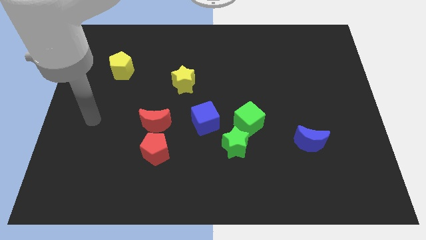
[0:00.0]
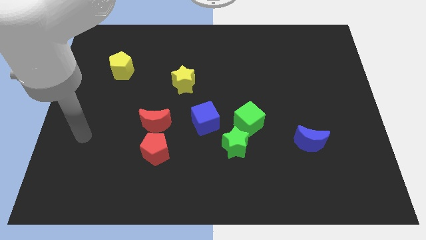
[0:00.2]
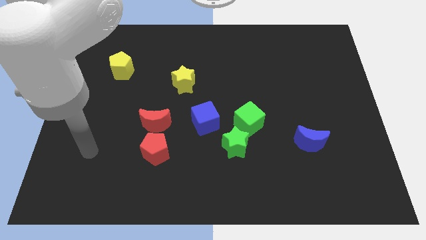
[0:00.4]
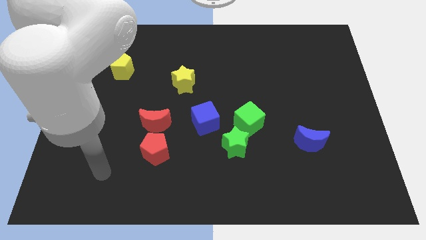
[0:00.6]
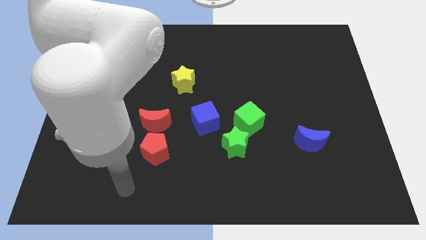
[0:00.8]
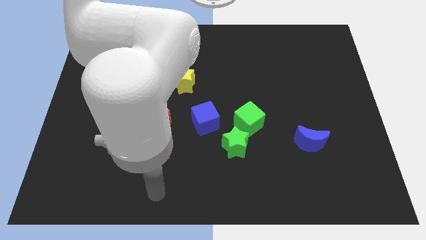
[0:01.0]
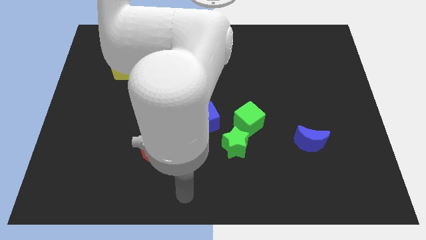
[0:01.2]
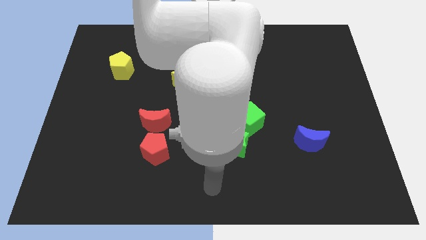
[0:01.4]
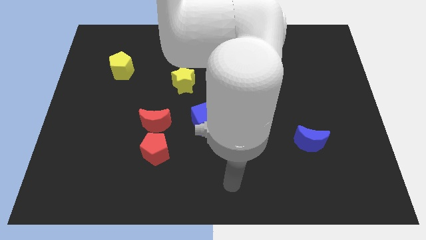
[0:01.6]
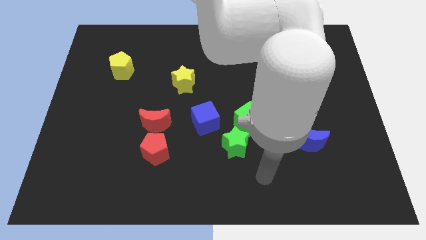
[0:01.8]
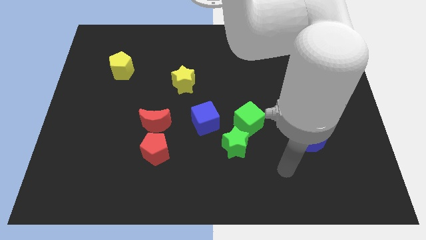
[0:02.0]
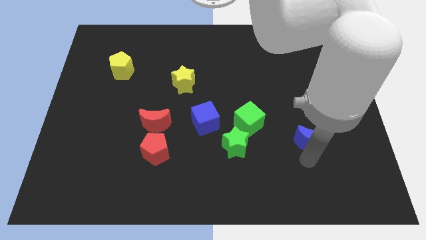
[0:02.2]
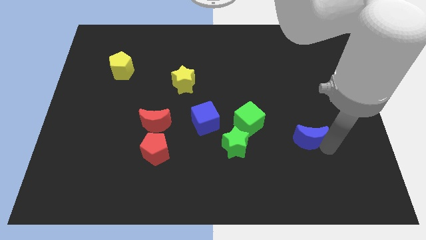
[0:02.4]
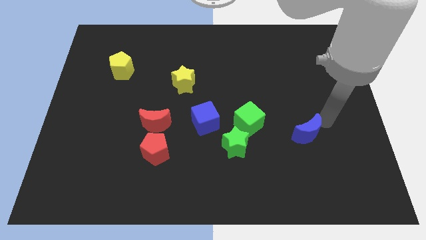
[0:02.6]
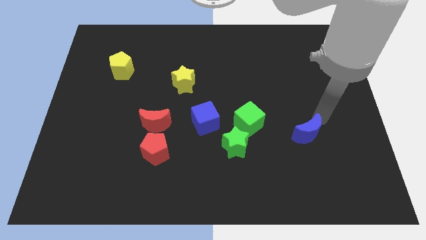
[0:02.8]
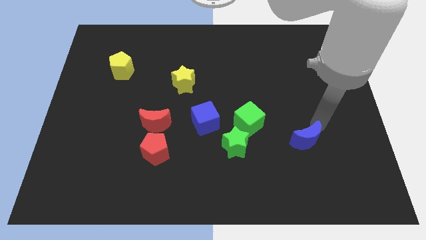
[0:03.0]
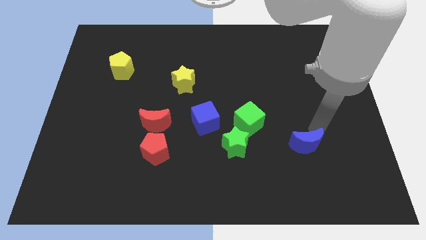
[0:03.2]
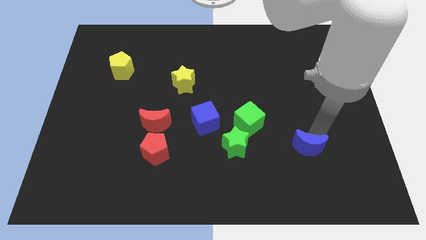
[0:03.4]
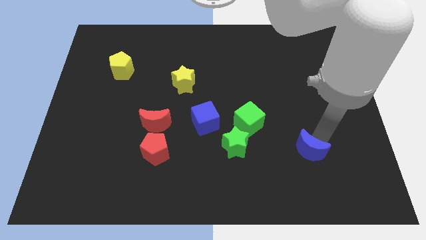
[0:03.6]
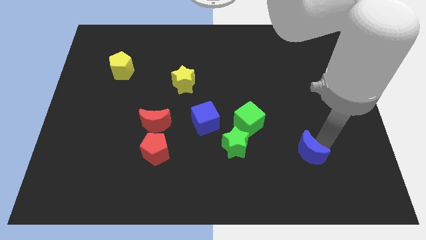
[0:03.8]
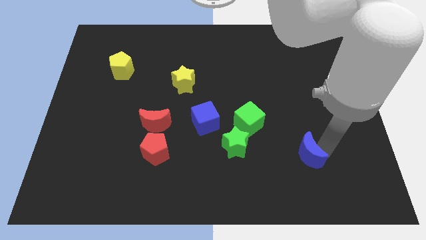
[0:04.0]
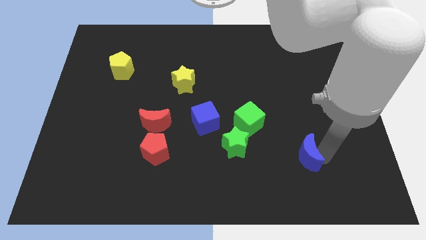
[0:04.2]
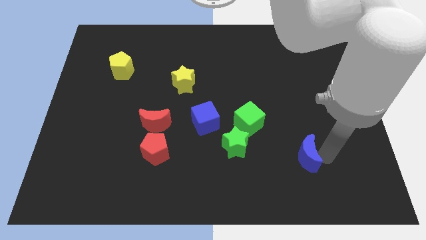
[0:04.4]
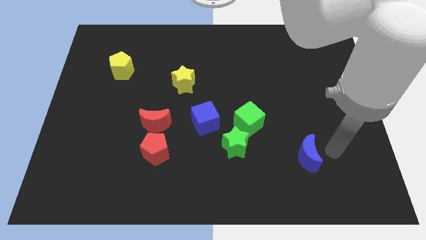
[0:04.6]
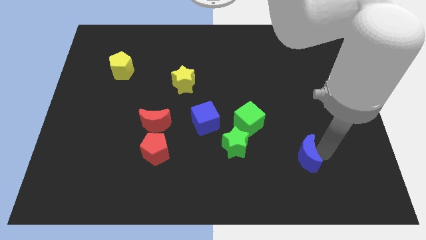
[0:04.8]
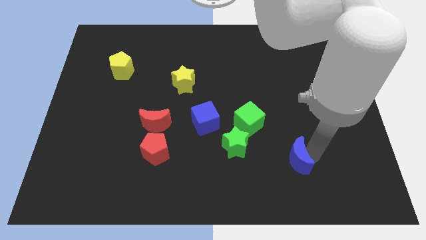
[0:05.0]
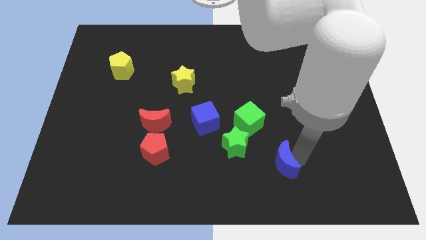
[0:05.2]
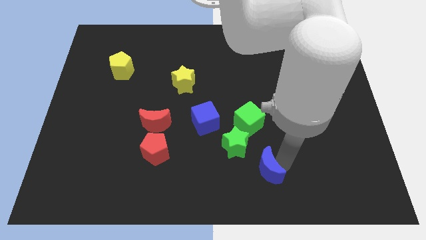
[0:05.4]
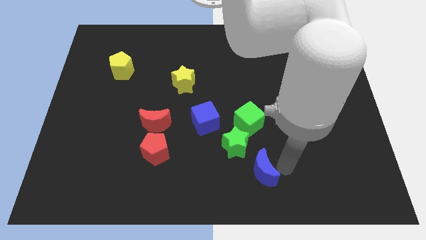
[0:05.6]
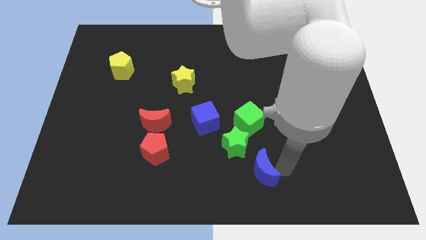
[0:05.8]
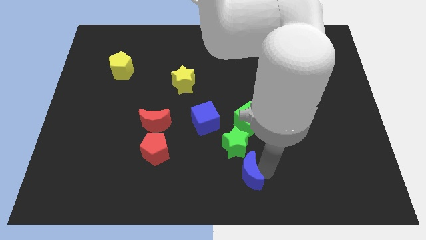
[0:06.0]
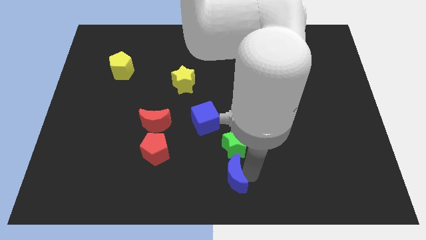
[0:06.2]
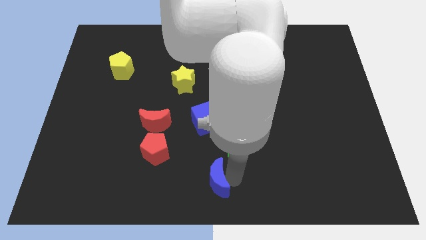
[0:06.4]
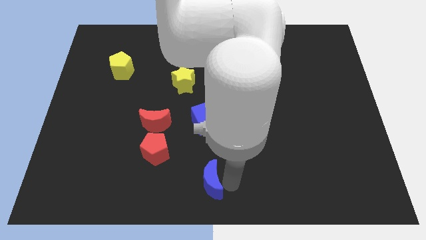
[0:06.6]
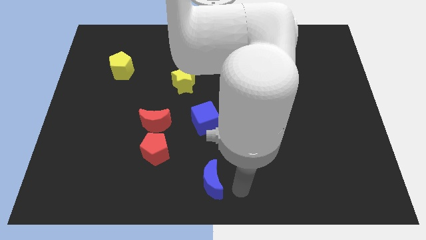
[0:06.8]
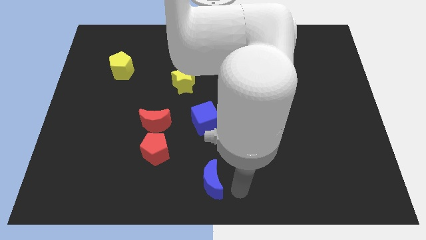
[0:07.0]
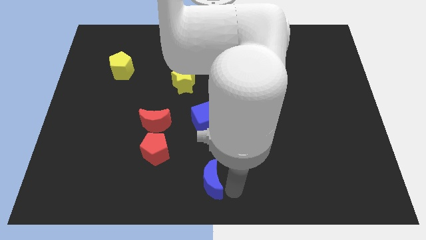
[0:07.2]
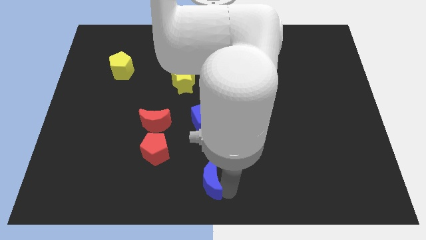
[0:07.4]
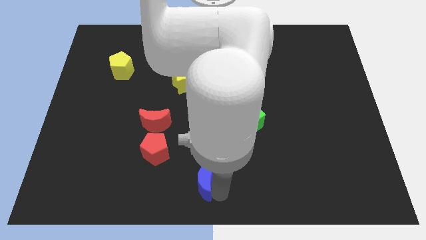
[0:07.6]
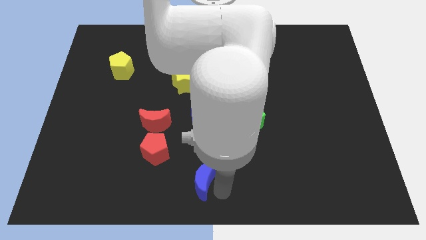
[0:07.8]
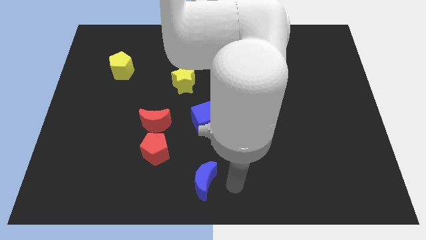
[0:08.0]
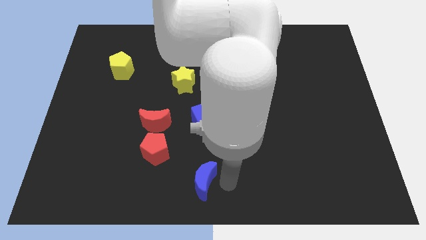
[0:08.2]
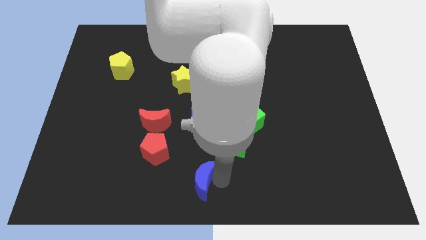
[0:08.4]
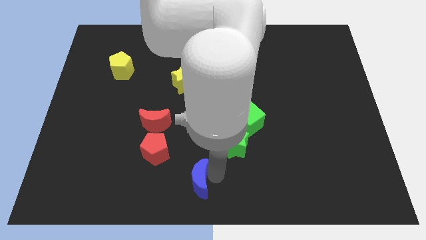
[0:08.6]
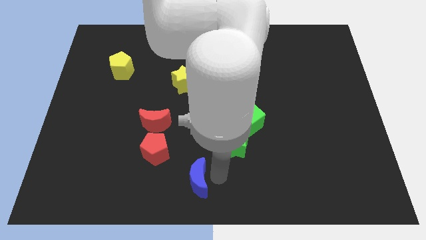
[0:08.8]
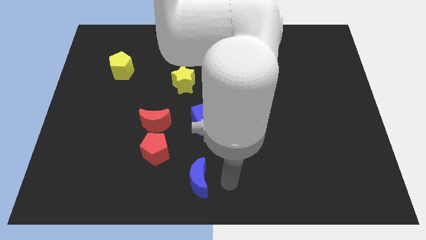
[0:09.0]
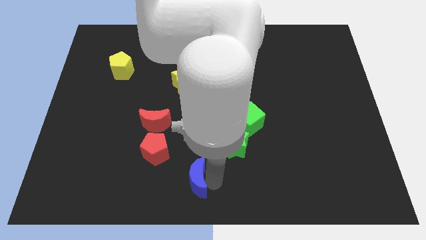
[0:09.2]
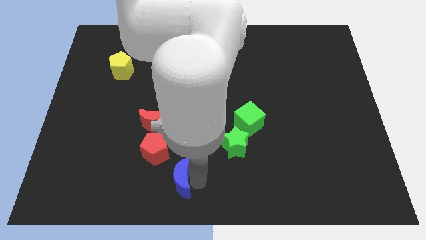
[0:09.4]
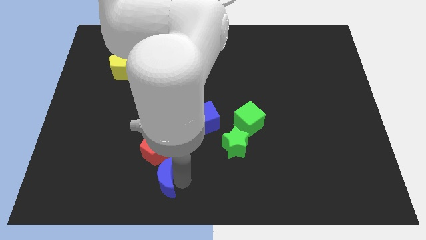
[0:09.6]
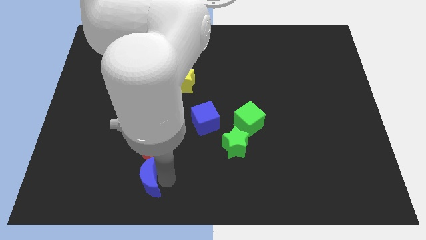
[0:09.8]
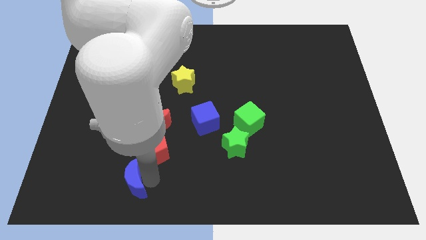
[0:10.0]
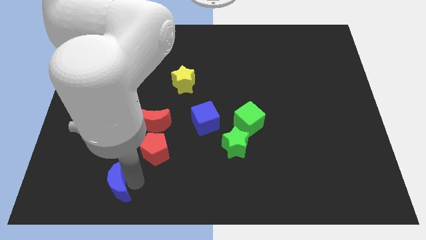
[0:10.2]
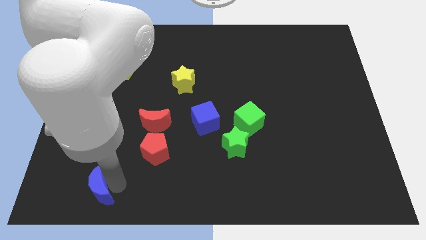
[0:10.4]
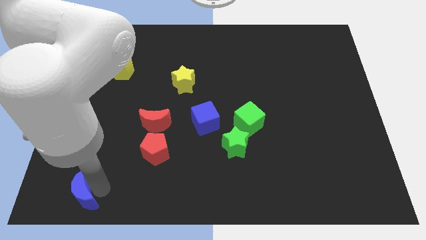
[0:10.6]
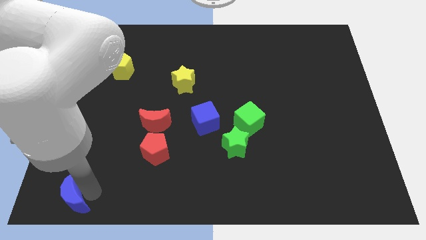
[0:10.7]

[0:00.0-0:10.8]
slide the blue moon to the bottom left of the board

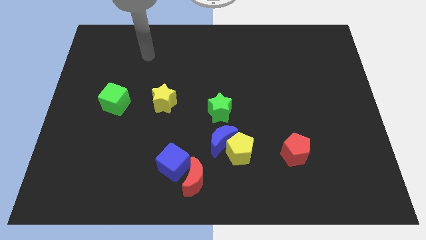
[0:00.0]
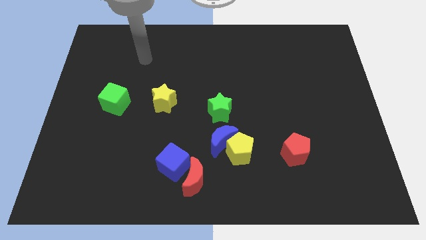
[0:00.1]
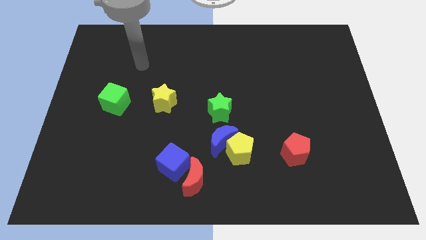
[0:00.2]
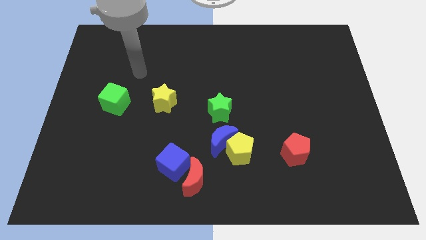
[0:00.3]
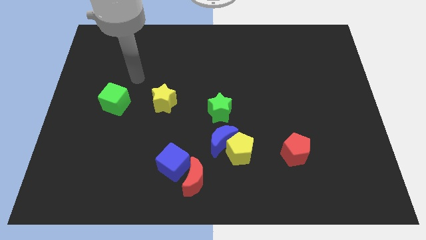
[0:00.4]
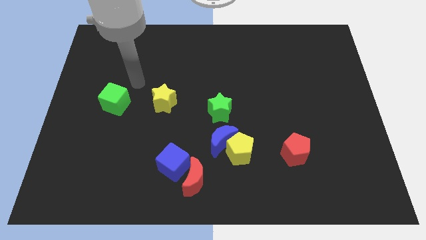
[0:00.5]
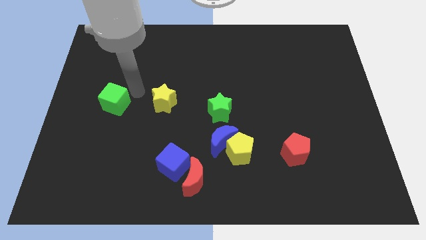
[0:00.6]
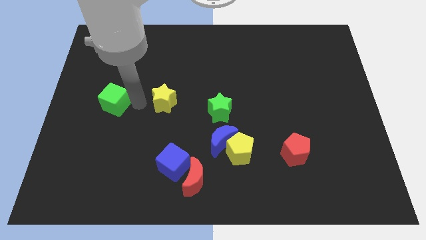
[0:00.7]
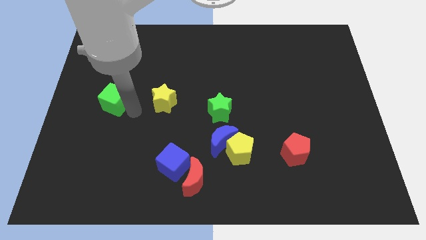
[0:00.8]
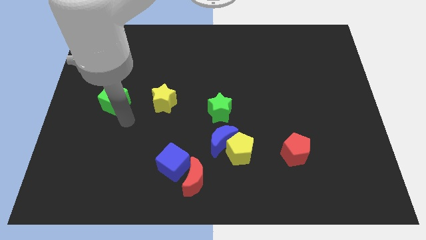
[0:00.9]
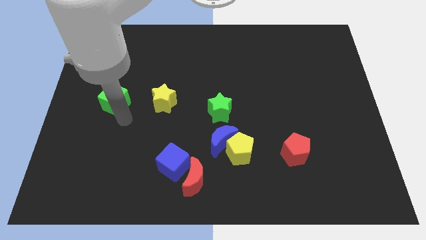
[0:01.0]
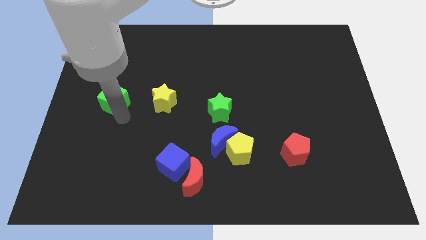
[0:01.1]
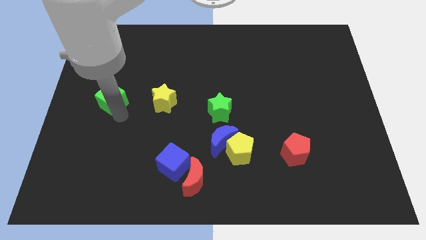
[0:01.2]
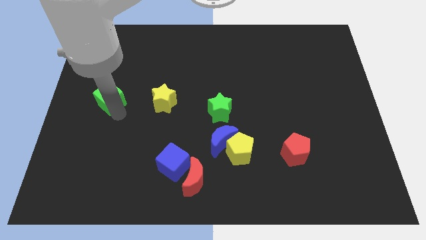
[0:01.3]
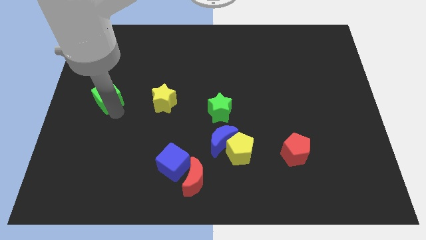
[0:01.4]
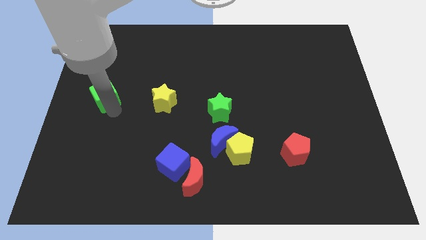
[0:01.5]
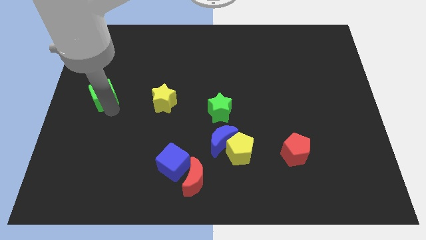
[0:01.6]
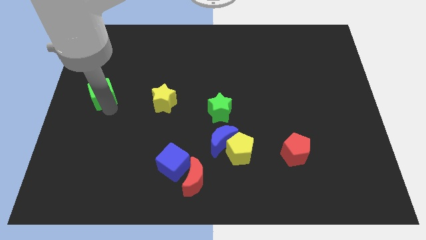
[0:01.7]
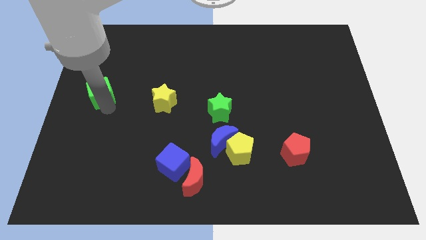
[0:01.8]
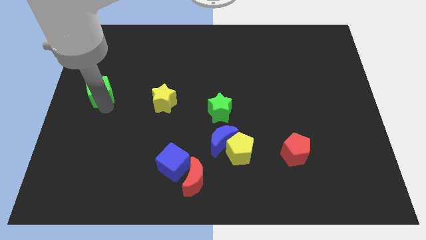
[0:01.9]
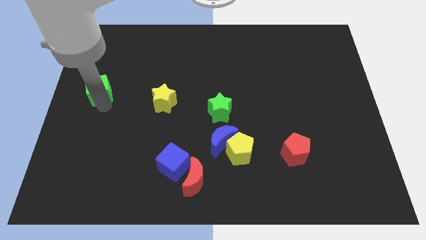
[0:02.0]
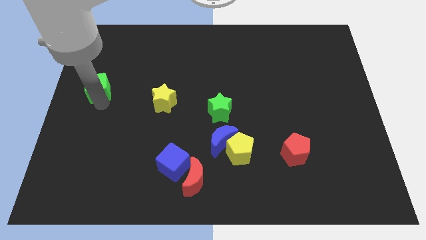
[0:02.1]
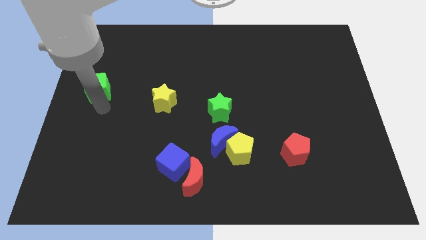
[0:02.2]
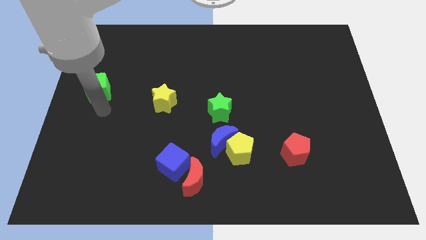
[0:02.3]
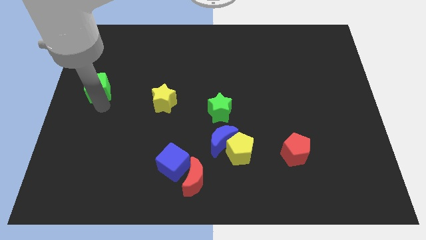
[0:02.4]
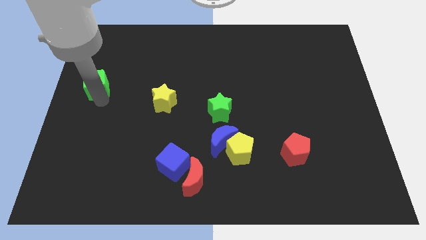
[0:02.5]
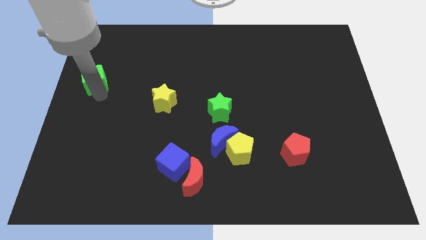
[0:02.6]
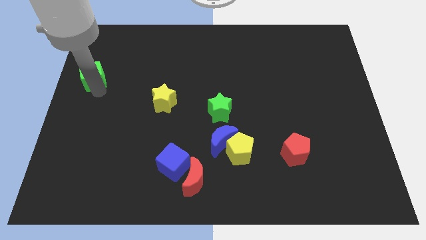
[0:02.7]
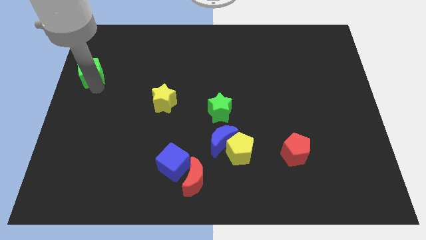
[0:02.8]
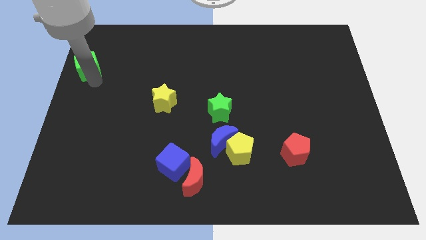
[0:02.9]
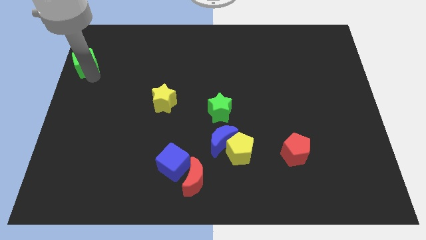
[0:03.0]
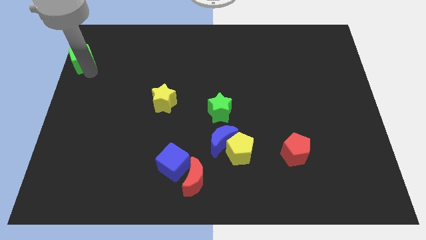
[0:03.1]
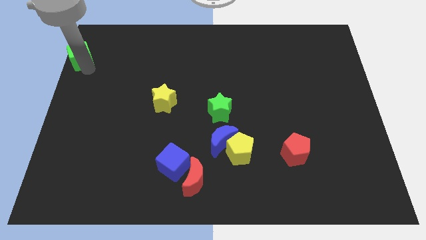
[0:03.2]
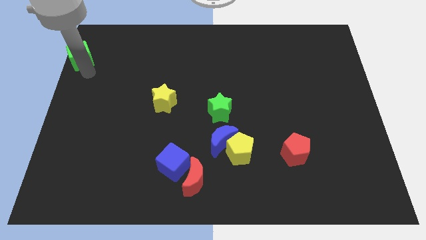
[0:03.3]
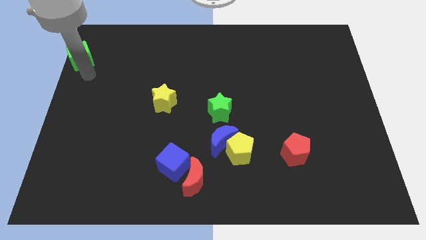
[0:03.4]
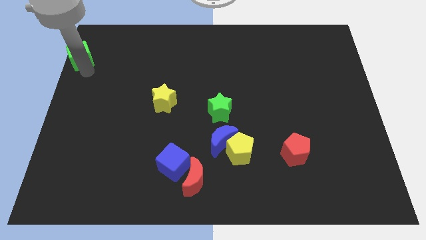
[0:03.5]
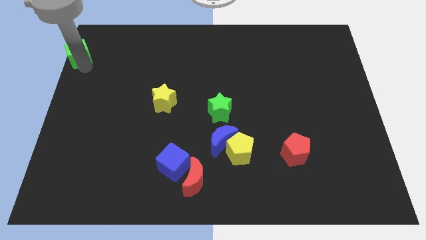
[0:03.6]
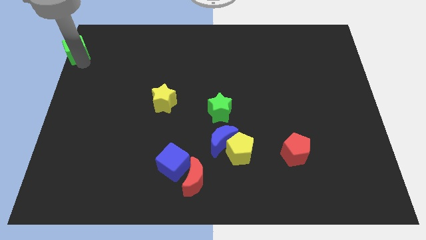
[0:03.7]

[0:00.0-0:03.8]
push the green cube to the upper left corner
